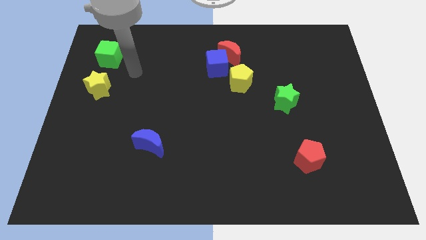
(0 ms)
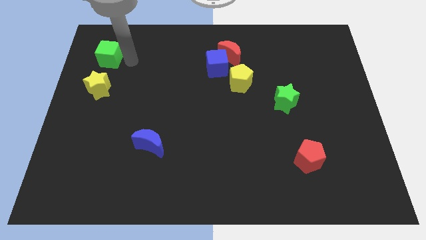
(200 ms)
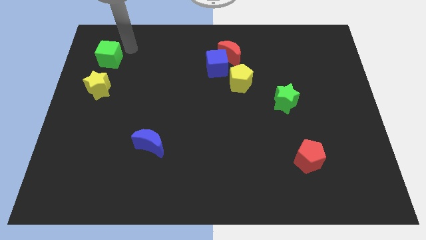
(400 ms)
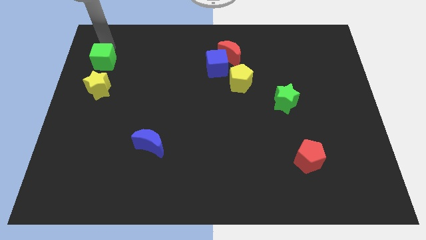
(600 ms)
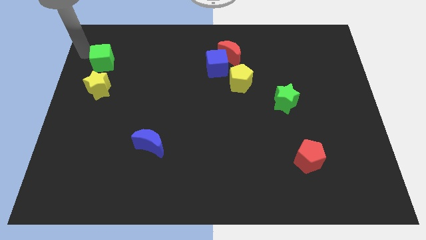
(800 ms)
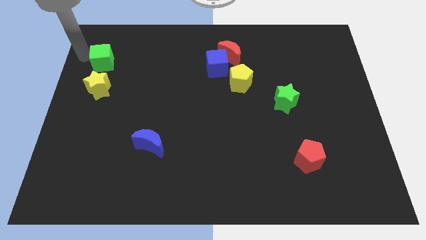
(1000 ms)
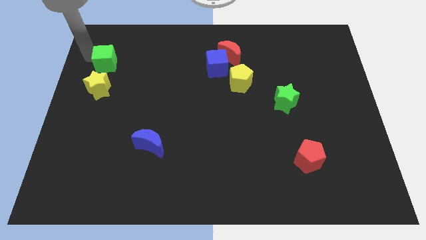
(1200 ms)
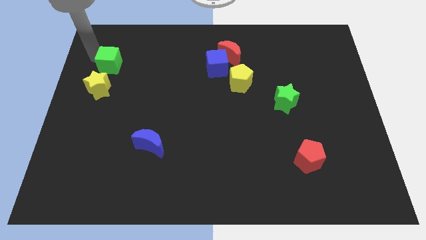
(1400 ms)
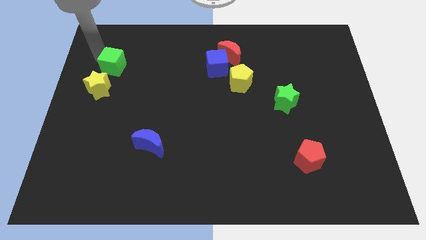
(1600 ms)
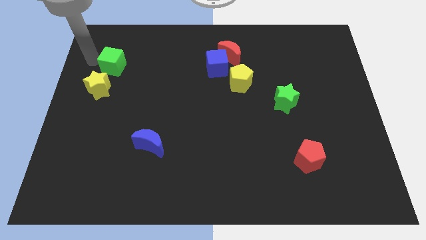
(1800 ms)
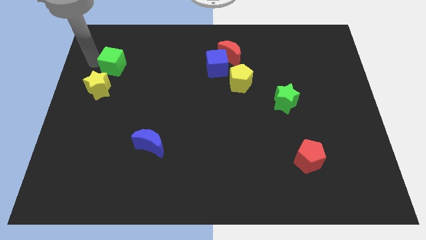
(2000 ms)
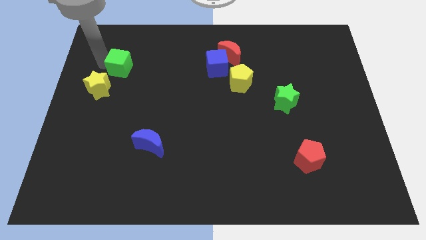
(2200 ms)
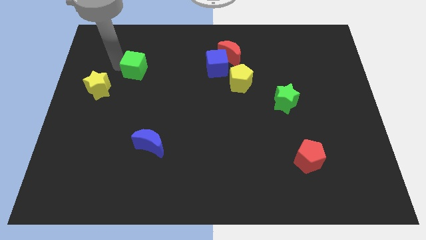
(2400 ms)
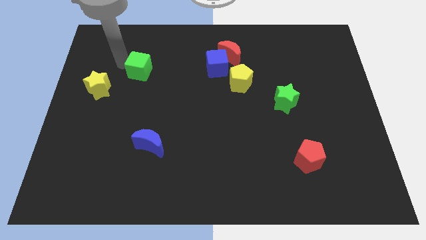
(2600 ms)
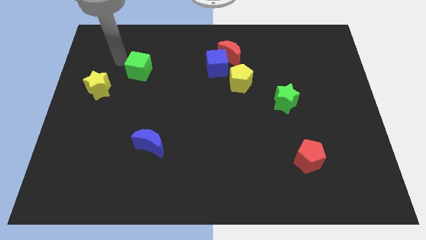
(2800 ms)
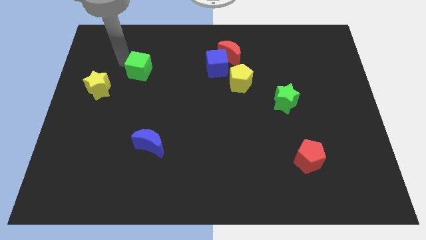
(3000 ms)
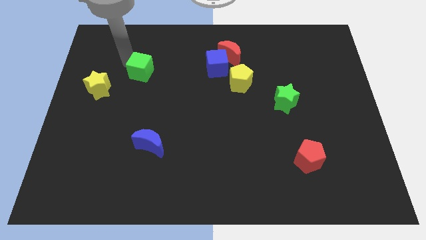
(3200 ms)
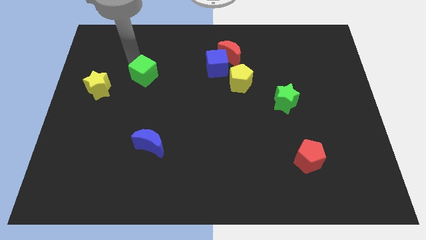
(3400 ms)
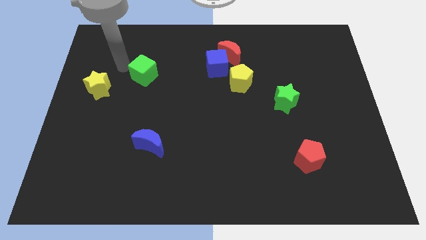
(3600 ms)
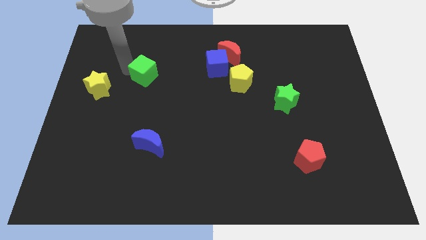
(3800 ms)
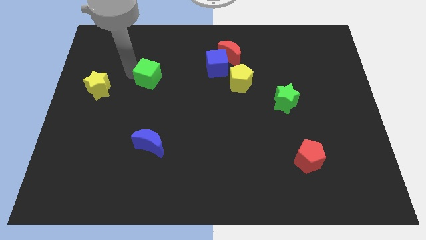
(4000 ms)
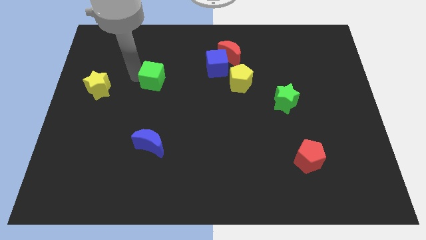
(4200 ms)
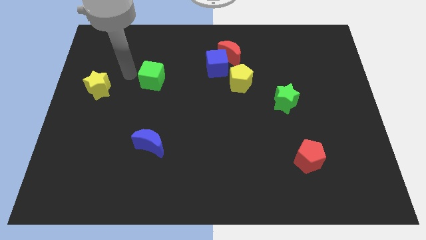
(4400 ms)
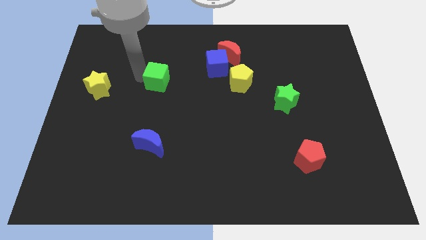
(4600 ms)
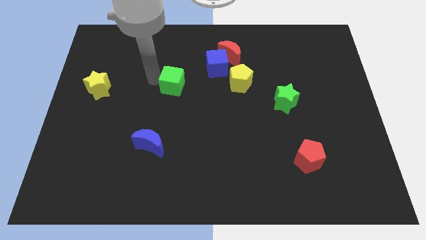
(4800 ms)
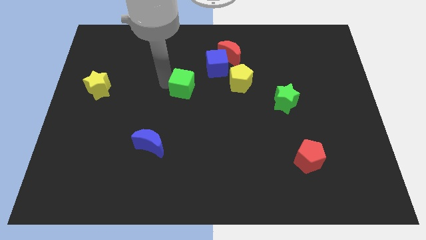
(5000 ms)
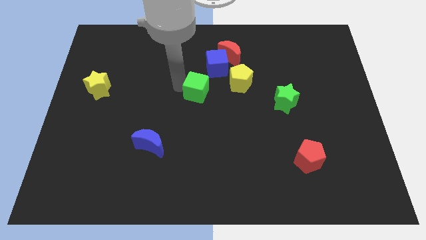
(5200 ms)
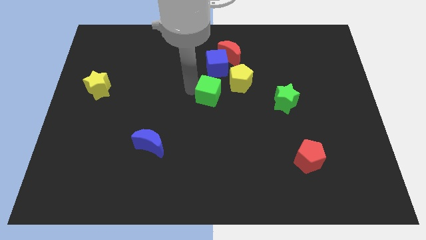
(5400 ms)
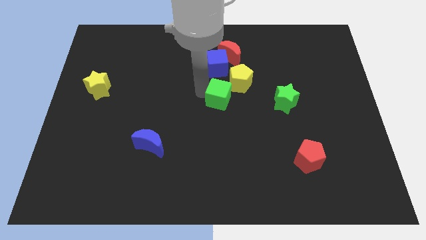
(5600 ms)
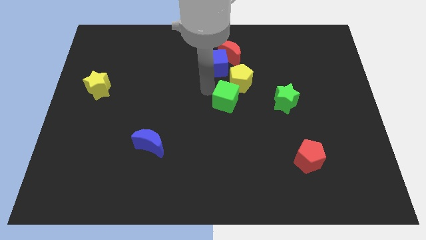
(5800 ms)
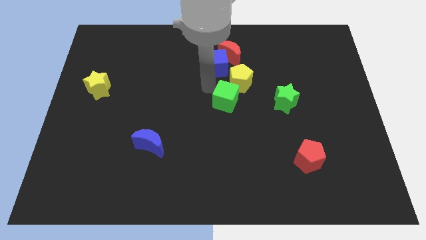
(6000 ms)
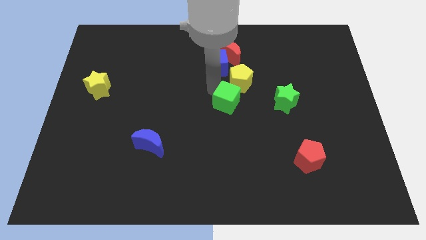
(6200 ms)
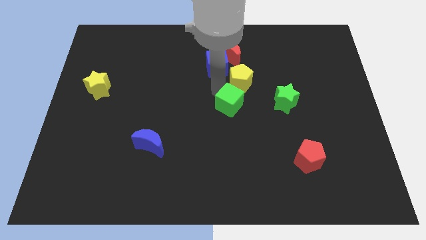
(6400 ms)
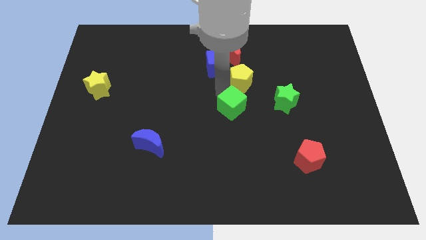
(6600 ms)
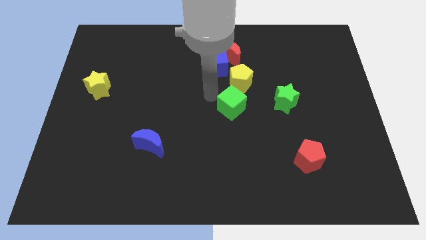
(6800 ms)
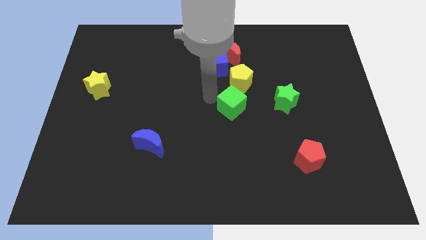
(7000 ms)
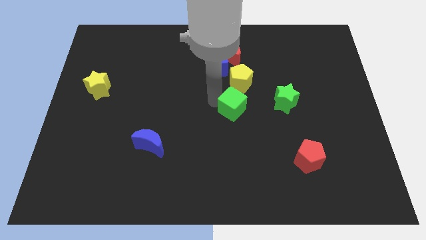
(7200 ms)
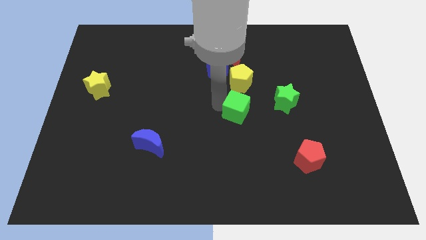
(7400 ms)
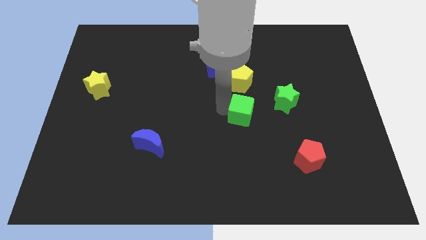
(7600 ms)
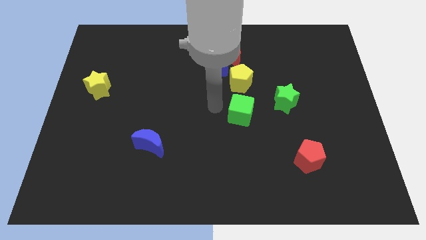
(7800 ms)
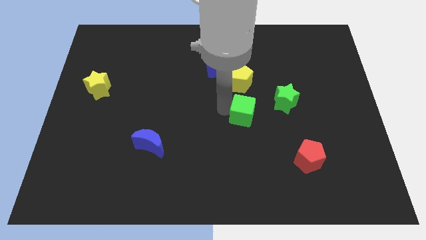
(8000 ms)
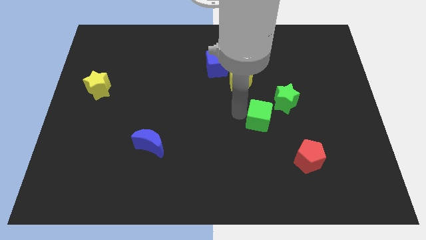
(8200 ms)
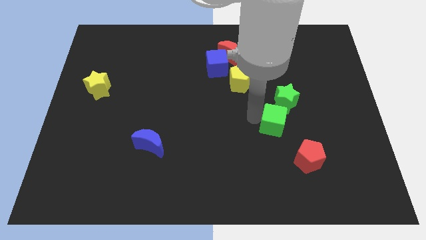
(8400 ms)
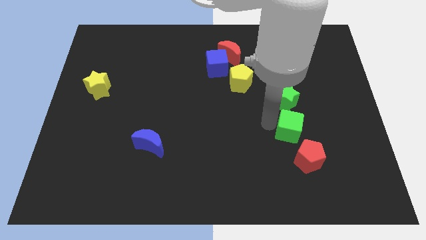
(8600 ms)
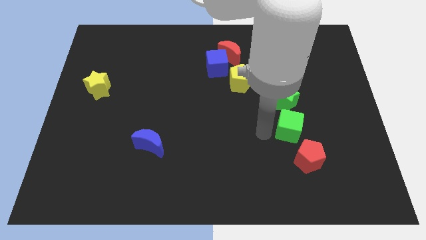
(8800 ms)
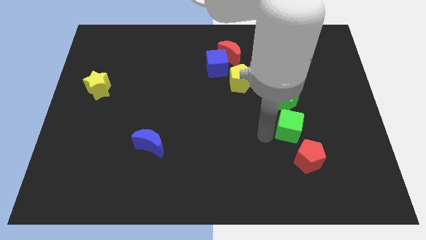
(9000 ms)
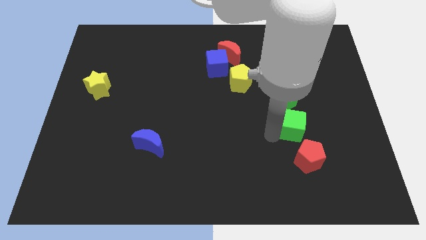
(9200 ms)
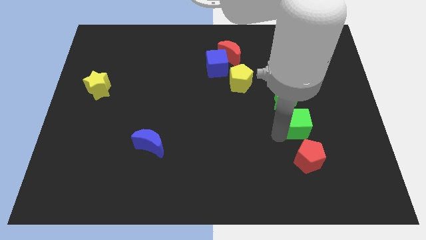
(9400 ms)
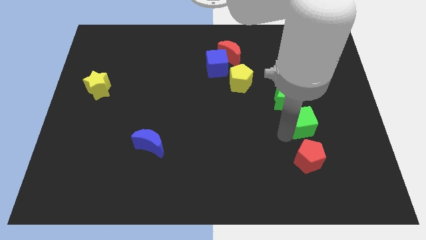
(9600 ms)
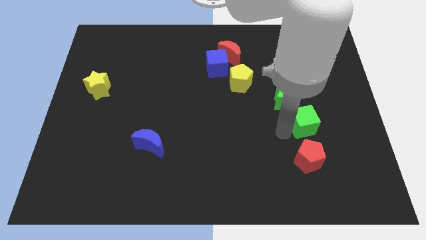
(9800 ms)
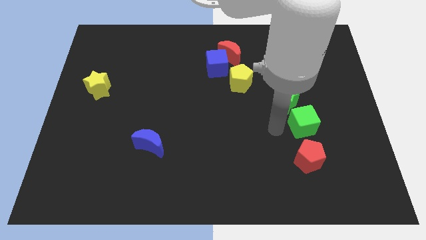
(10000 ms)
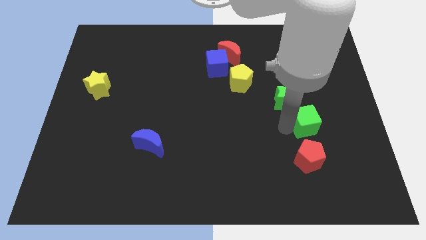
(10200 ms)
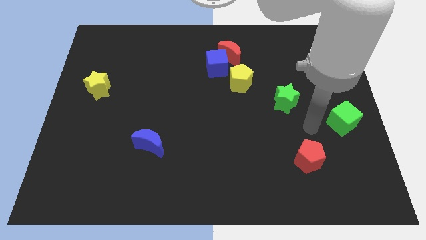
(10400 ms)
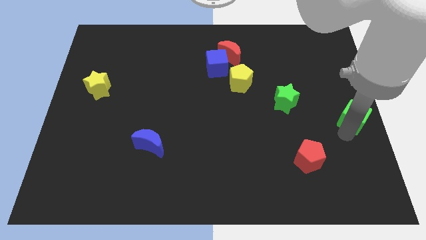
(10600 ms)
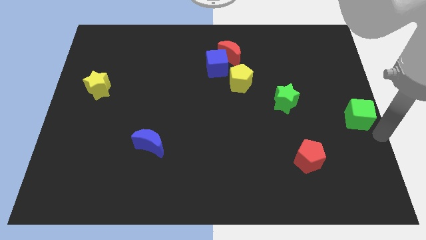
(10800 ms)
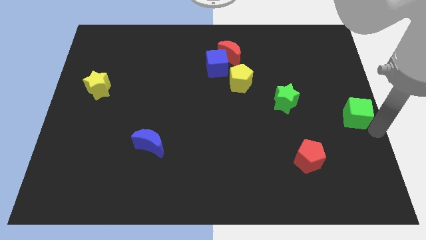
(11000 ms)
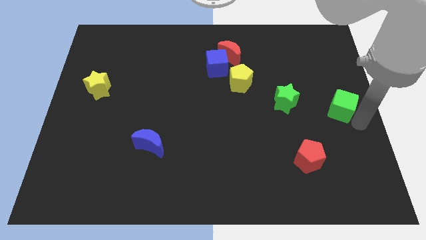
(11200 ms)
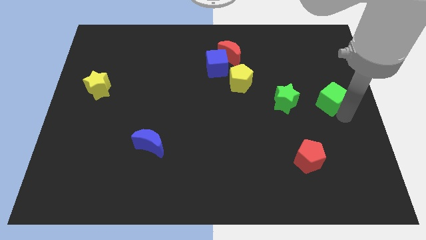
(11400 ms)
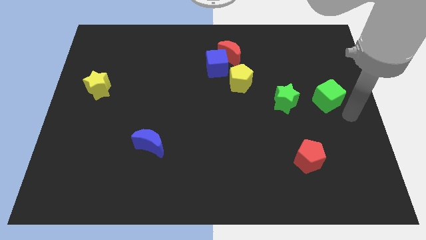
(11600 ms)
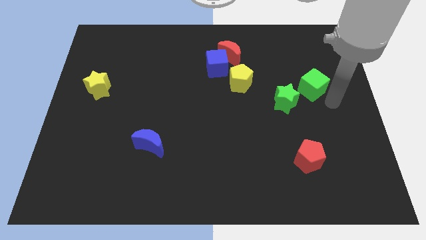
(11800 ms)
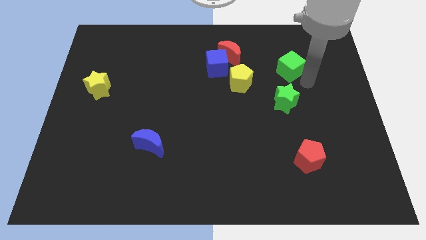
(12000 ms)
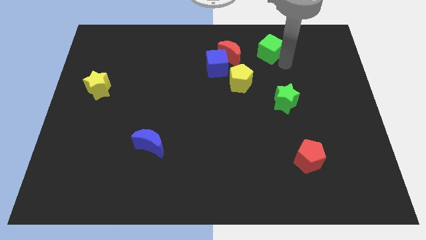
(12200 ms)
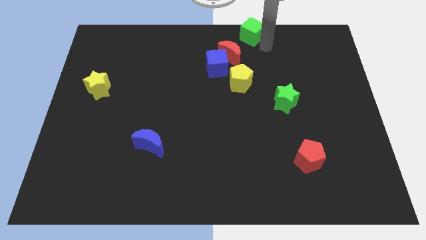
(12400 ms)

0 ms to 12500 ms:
push the green cube to the top
